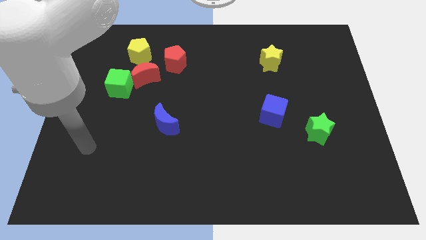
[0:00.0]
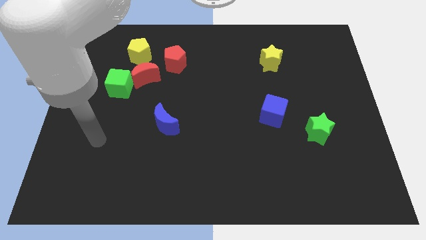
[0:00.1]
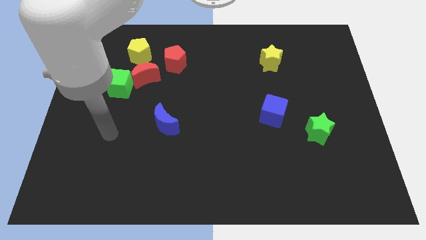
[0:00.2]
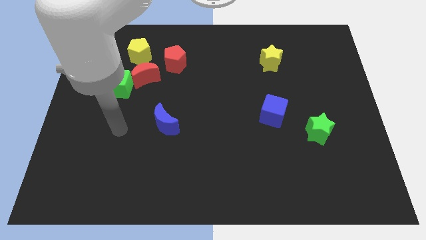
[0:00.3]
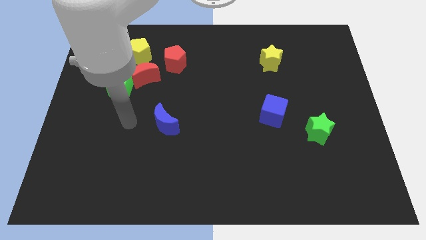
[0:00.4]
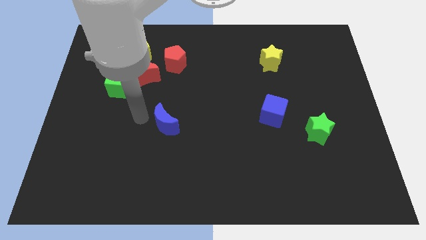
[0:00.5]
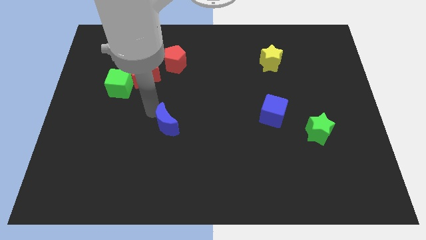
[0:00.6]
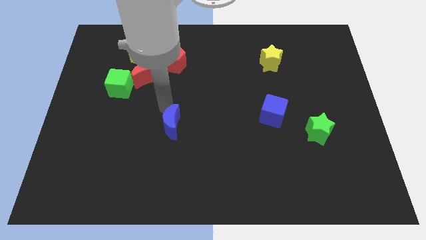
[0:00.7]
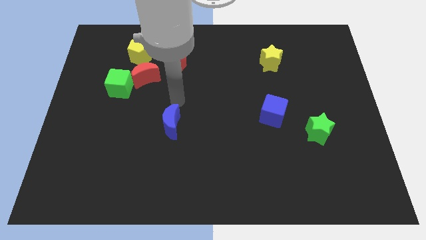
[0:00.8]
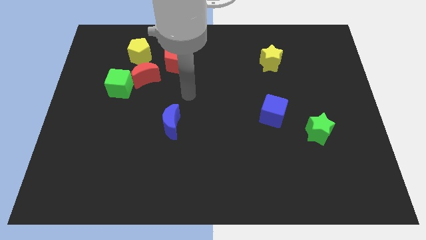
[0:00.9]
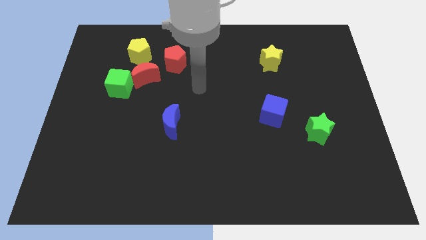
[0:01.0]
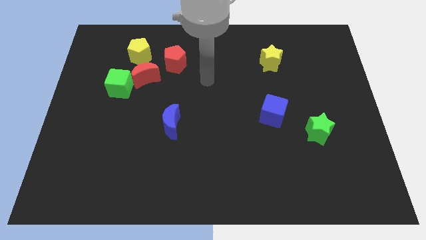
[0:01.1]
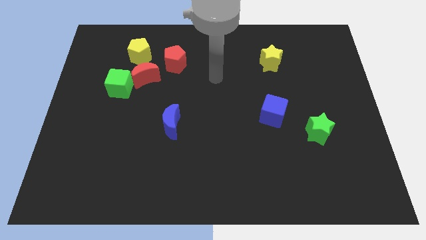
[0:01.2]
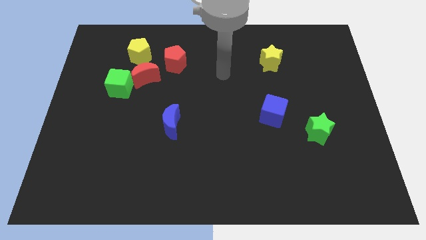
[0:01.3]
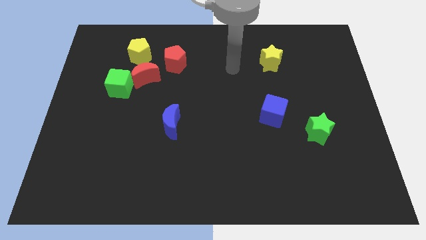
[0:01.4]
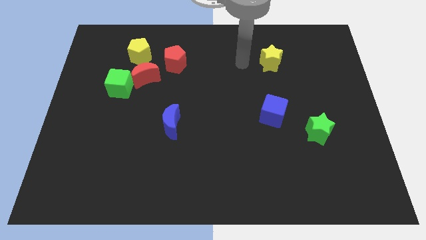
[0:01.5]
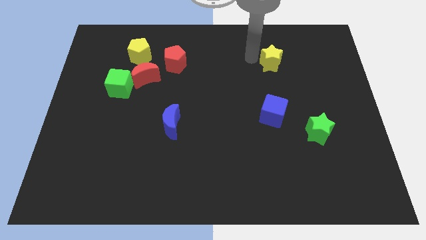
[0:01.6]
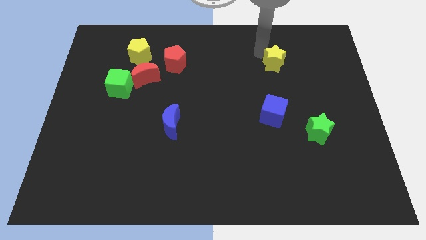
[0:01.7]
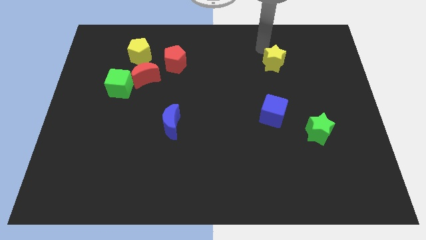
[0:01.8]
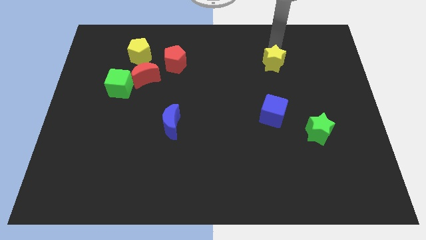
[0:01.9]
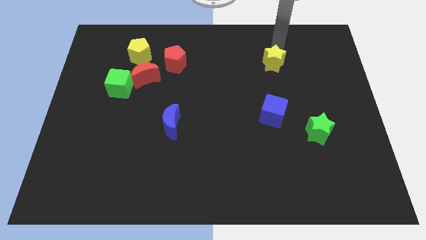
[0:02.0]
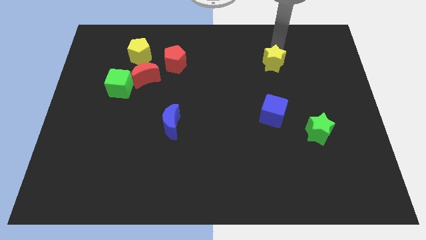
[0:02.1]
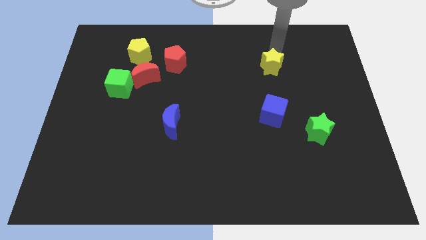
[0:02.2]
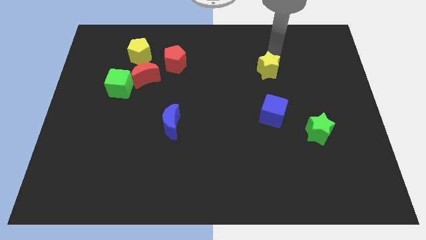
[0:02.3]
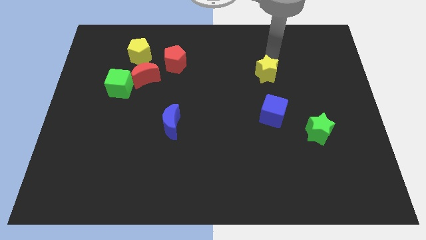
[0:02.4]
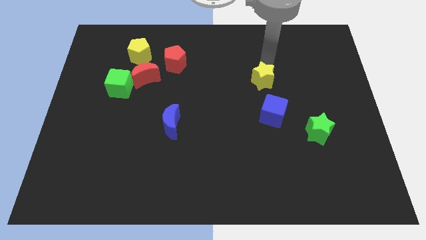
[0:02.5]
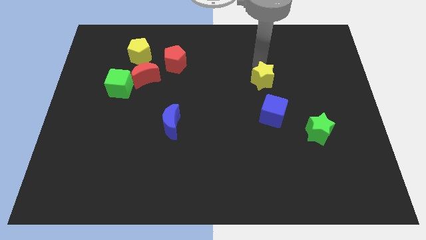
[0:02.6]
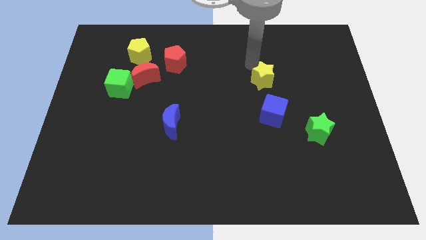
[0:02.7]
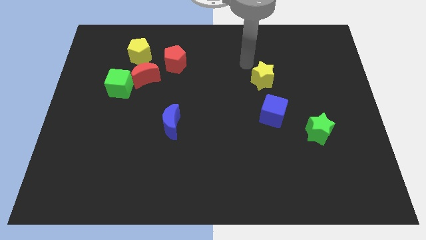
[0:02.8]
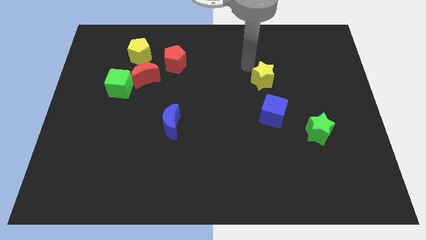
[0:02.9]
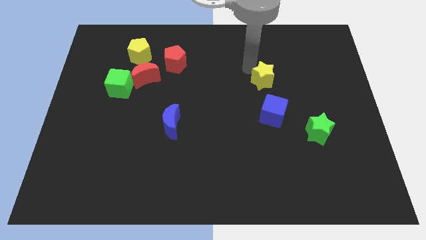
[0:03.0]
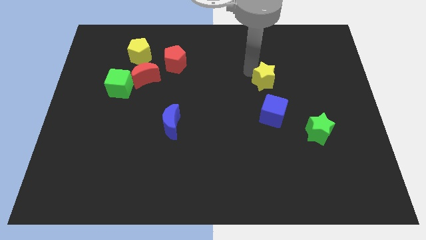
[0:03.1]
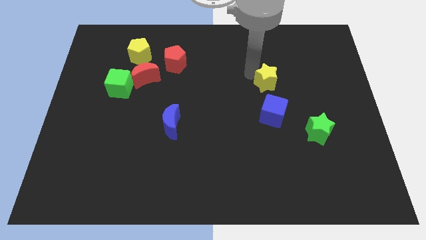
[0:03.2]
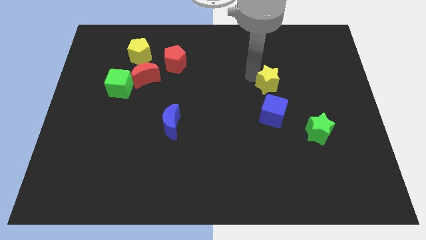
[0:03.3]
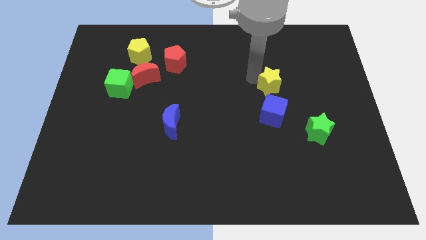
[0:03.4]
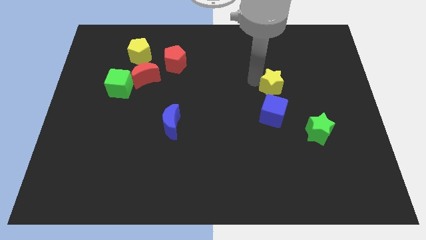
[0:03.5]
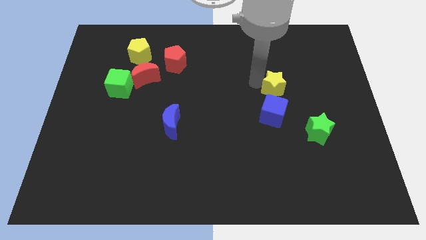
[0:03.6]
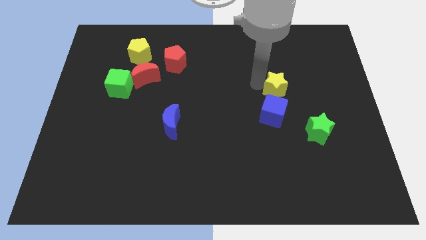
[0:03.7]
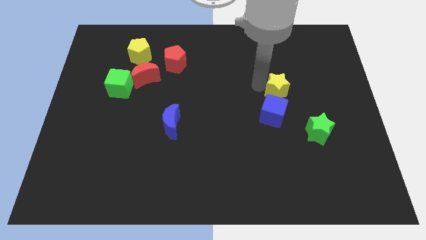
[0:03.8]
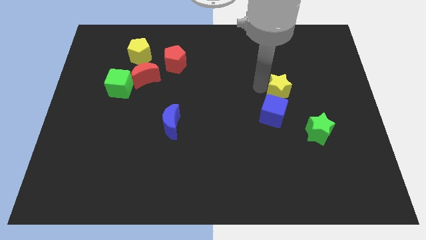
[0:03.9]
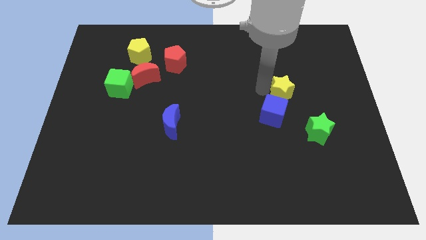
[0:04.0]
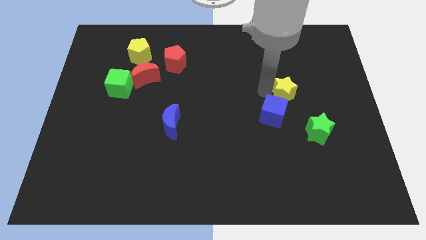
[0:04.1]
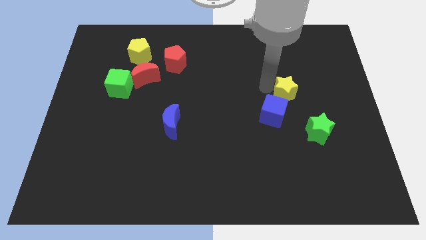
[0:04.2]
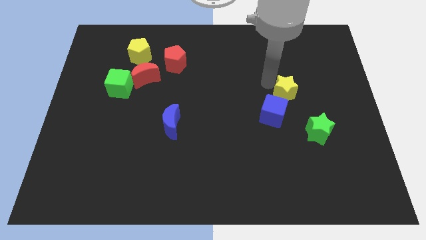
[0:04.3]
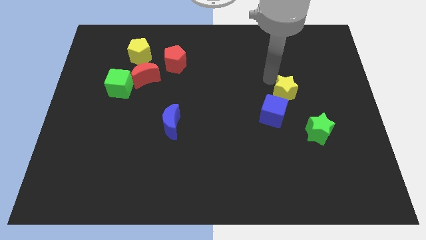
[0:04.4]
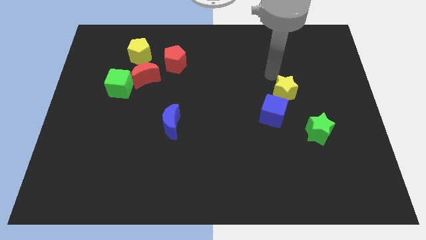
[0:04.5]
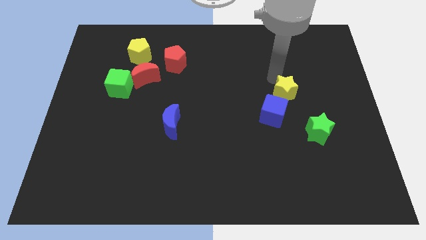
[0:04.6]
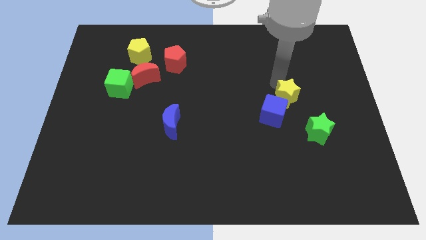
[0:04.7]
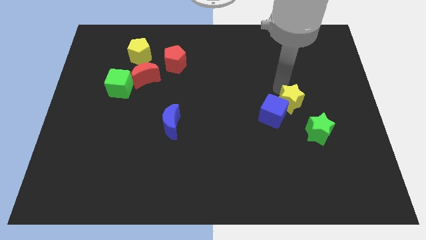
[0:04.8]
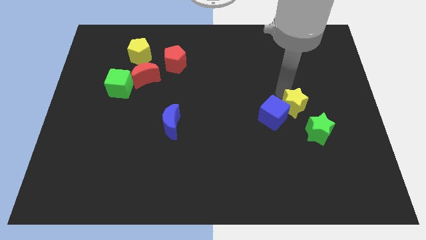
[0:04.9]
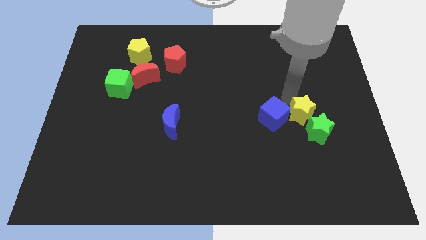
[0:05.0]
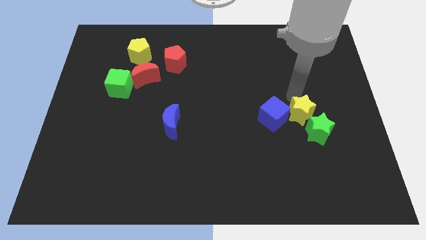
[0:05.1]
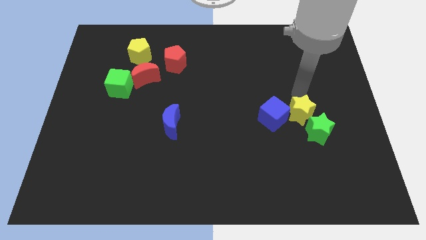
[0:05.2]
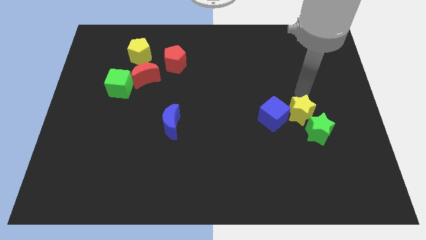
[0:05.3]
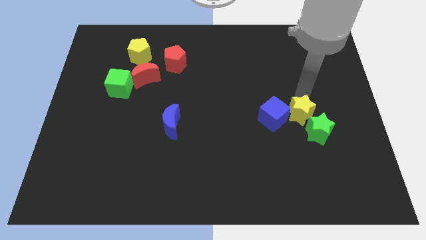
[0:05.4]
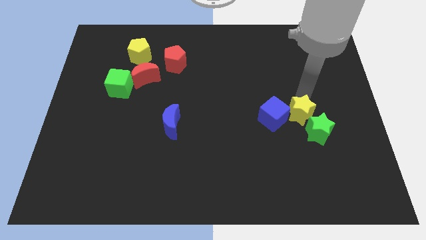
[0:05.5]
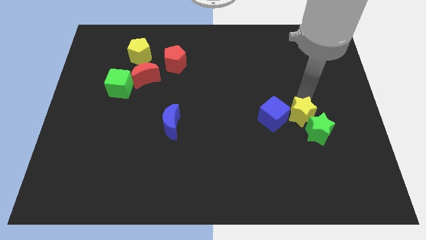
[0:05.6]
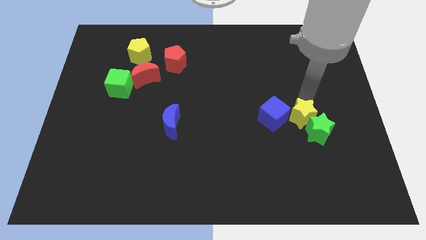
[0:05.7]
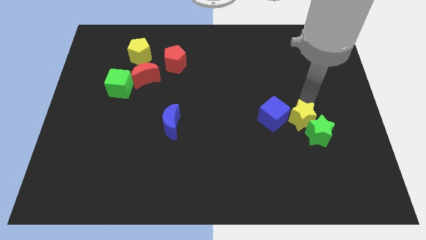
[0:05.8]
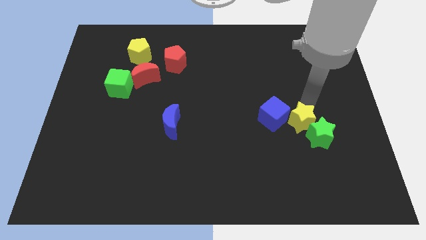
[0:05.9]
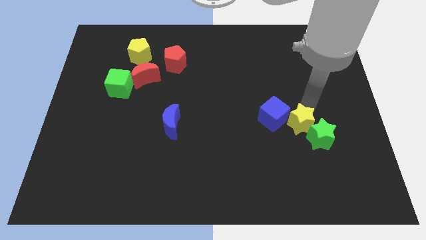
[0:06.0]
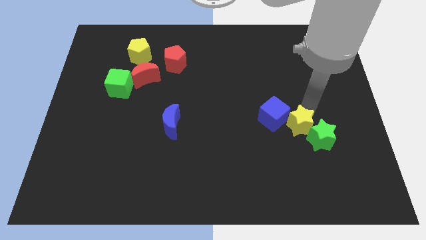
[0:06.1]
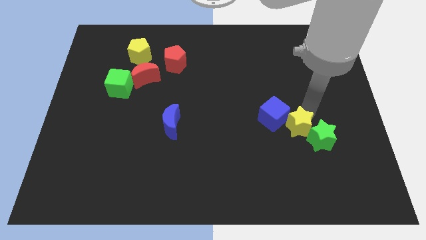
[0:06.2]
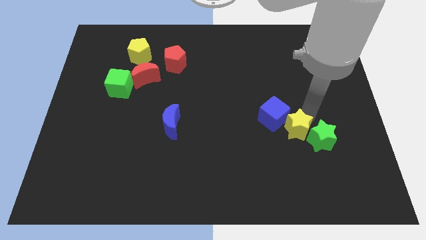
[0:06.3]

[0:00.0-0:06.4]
slide the yellow star downwards

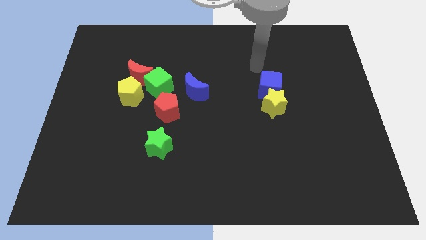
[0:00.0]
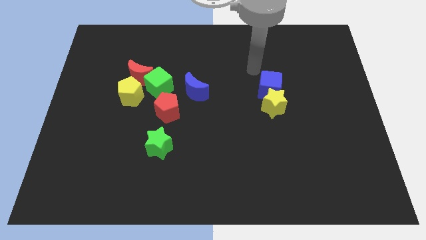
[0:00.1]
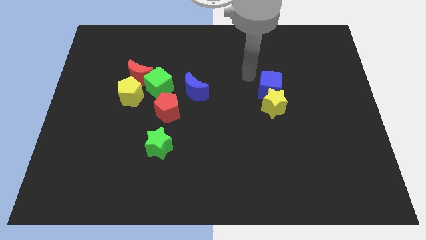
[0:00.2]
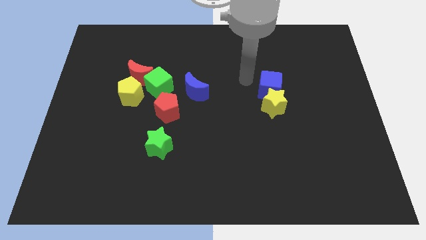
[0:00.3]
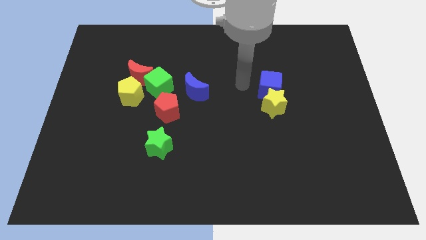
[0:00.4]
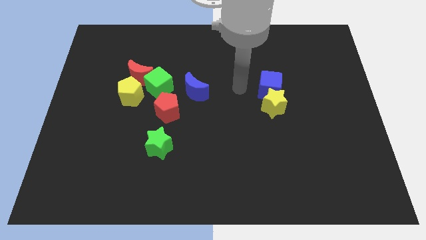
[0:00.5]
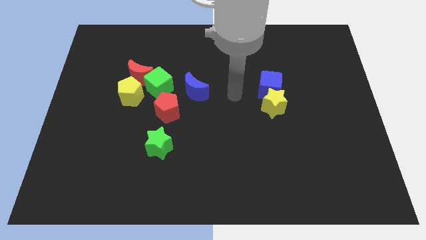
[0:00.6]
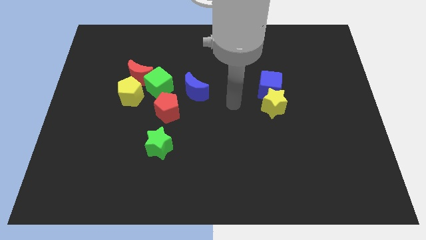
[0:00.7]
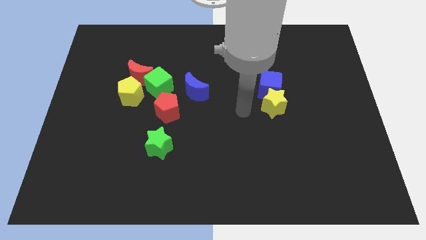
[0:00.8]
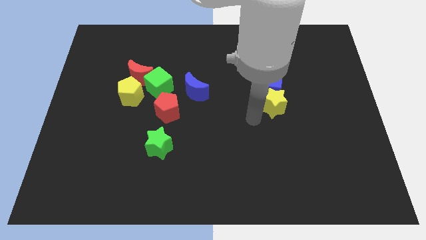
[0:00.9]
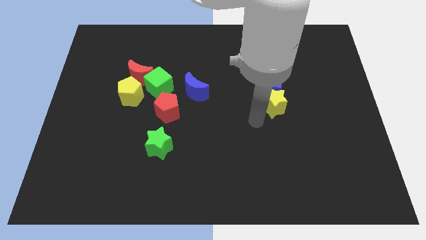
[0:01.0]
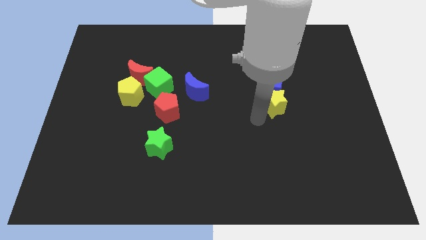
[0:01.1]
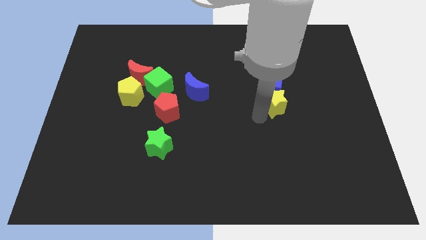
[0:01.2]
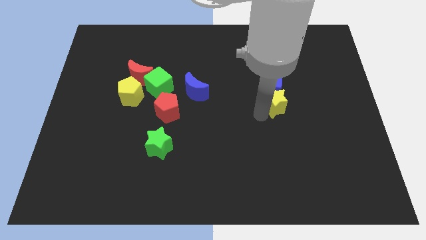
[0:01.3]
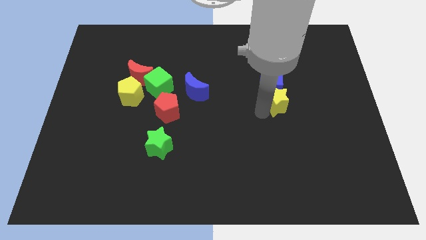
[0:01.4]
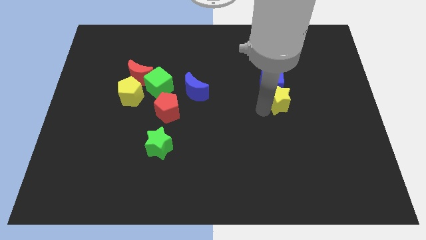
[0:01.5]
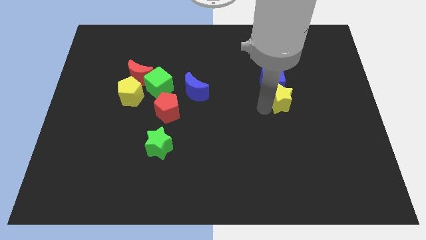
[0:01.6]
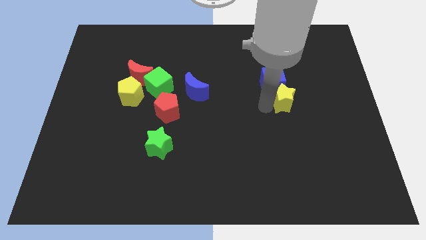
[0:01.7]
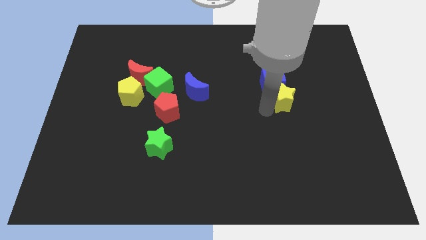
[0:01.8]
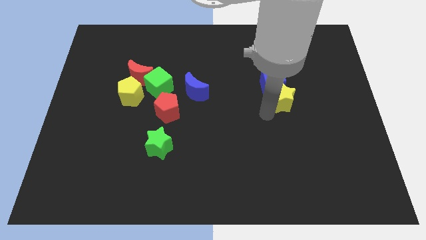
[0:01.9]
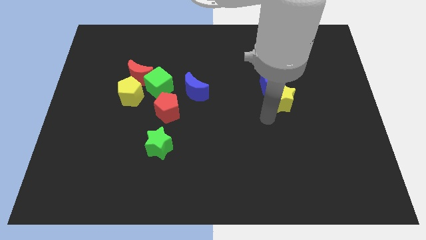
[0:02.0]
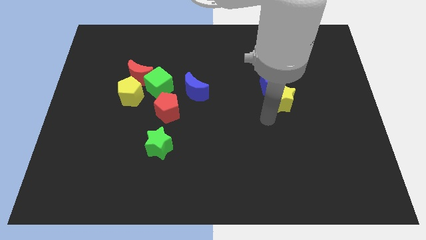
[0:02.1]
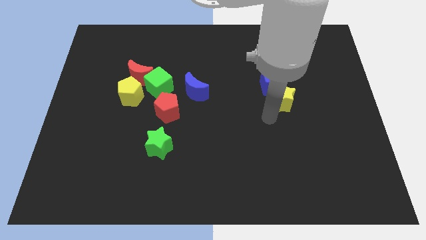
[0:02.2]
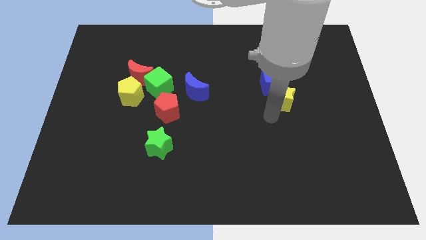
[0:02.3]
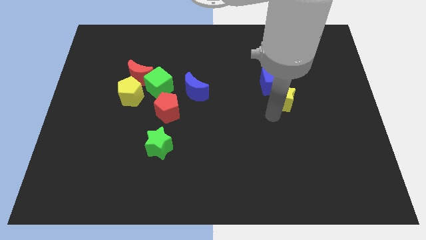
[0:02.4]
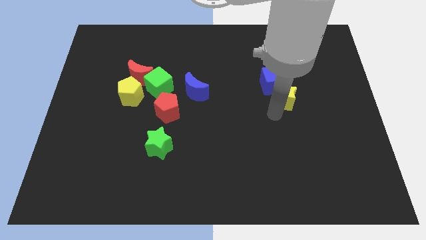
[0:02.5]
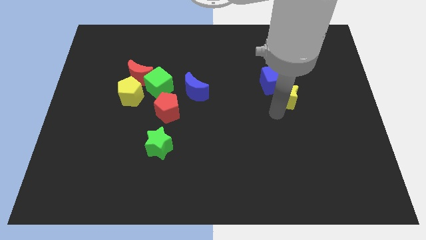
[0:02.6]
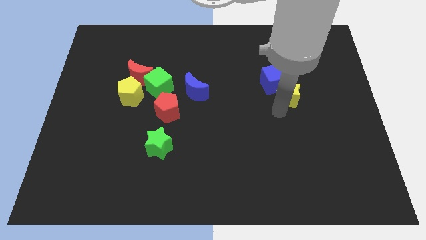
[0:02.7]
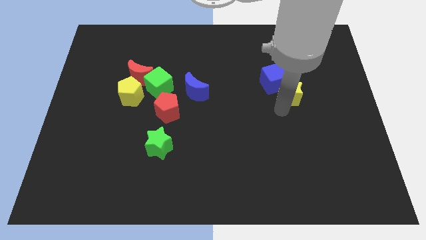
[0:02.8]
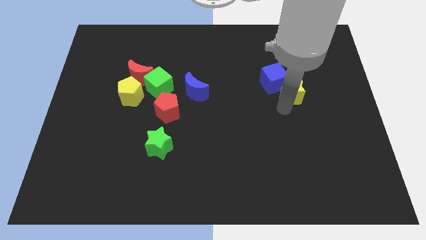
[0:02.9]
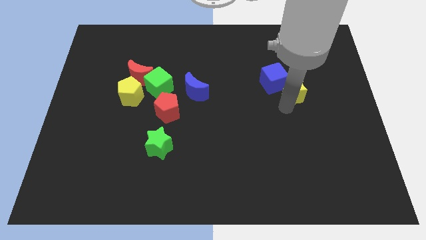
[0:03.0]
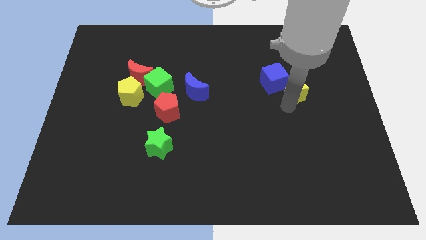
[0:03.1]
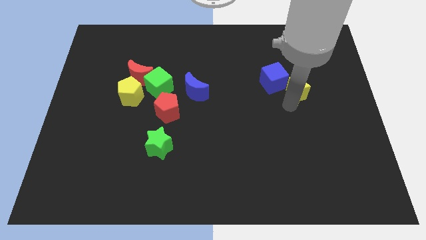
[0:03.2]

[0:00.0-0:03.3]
slightly move the yellow star up and then to the right
